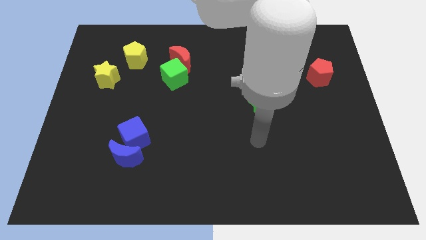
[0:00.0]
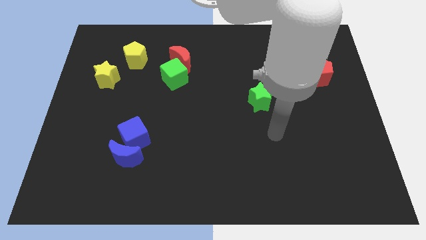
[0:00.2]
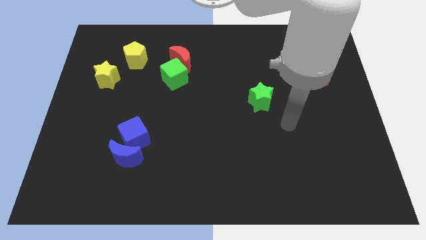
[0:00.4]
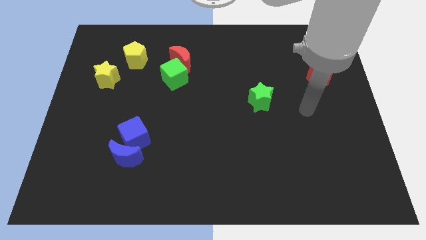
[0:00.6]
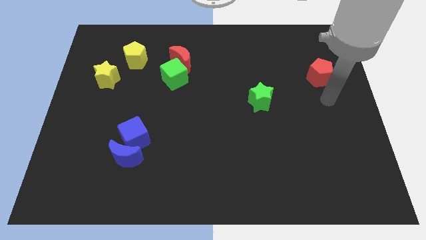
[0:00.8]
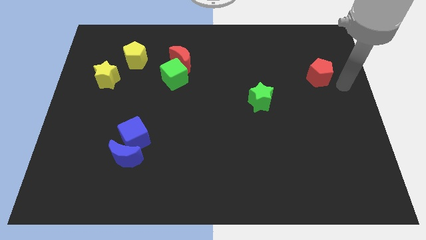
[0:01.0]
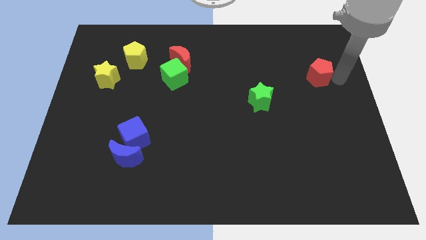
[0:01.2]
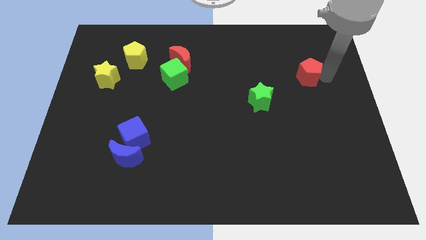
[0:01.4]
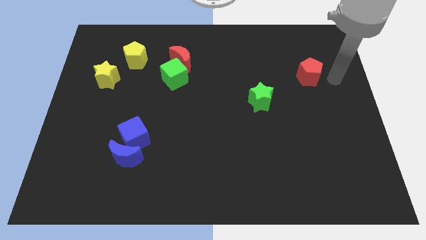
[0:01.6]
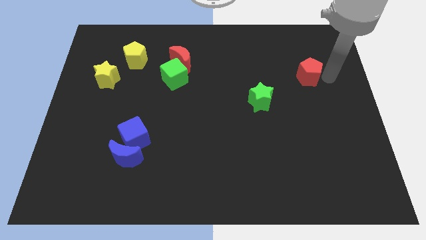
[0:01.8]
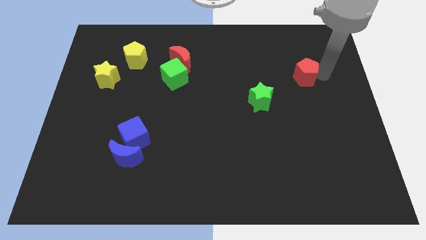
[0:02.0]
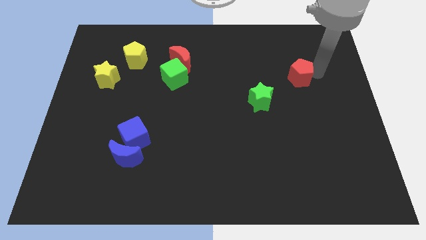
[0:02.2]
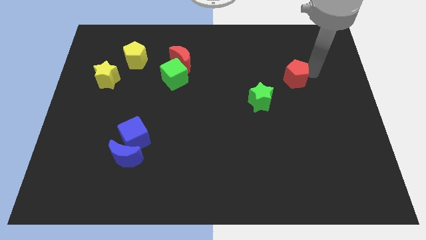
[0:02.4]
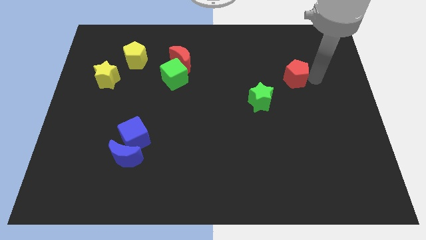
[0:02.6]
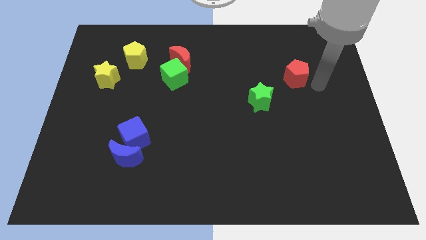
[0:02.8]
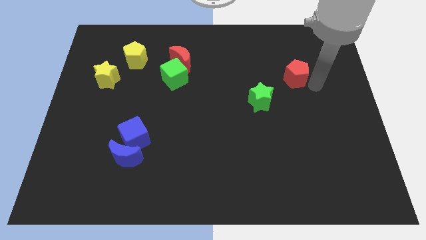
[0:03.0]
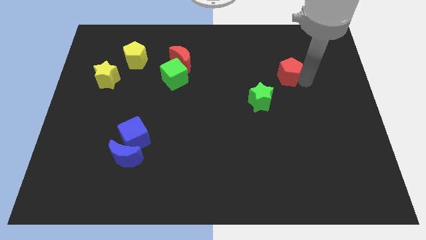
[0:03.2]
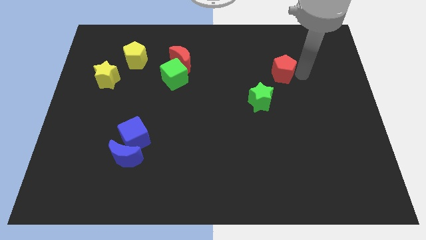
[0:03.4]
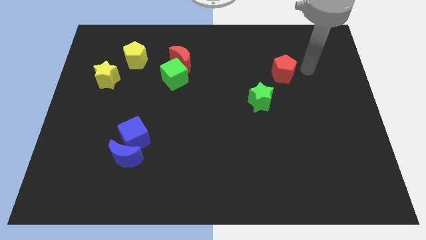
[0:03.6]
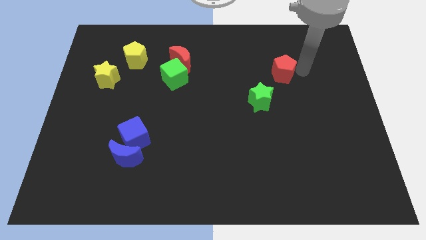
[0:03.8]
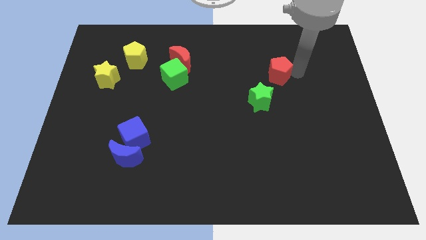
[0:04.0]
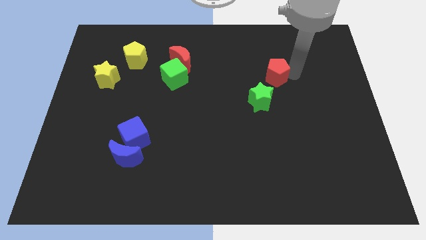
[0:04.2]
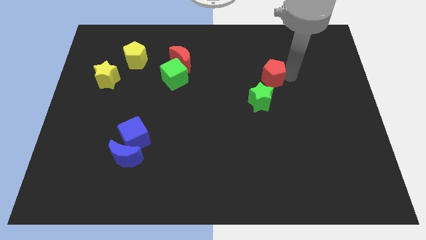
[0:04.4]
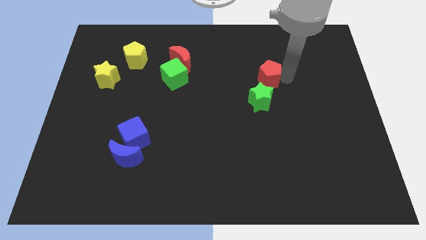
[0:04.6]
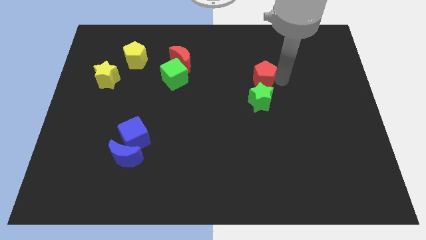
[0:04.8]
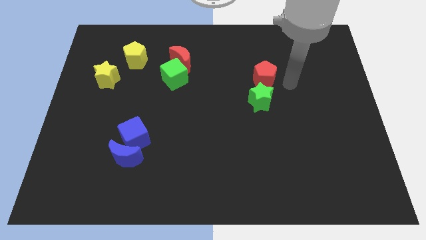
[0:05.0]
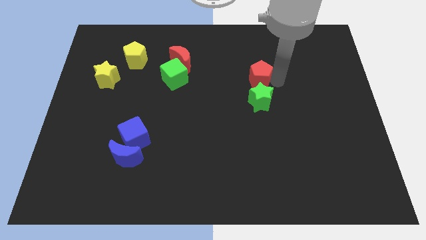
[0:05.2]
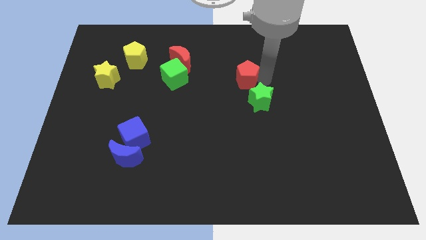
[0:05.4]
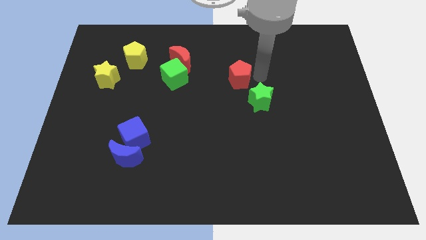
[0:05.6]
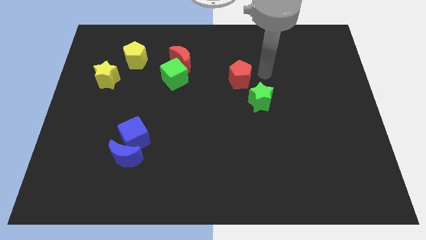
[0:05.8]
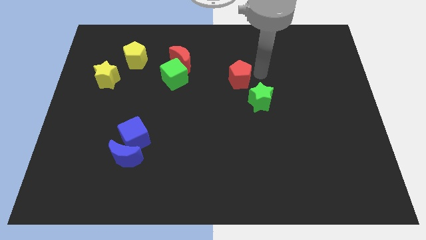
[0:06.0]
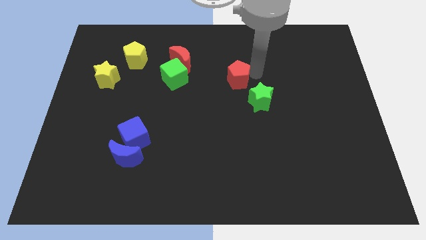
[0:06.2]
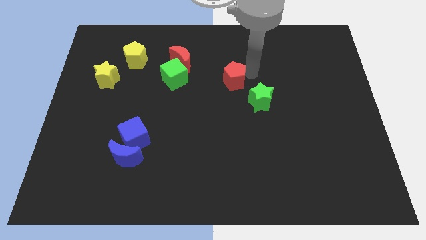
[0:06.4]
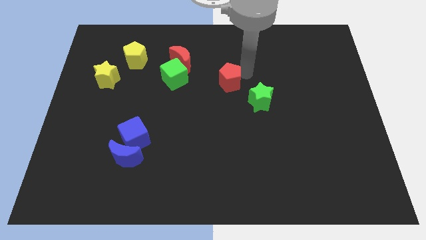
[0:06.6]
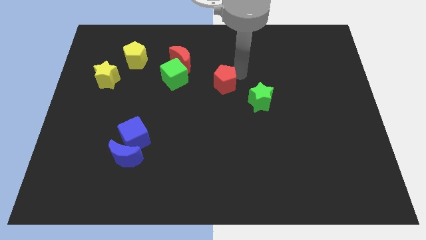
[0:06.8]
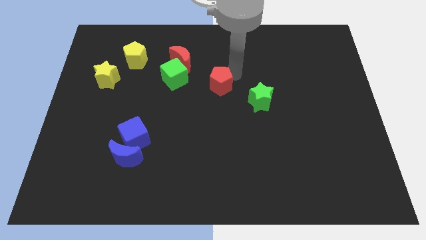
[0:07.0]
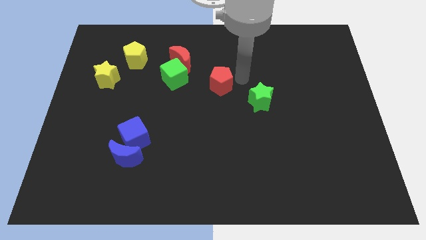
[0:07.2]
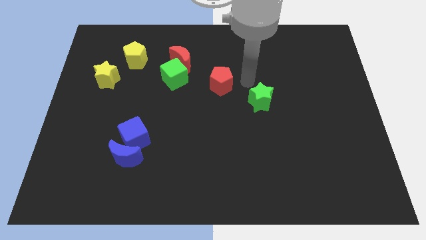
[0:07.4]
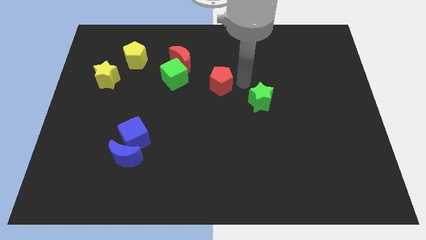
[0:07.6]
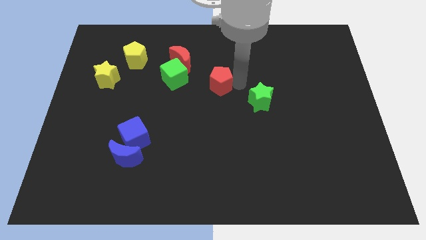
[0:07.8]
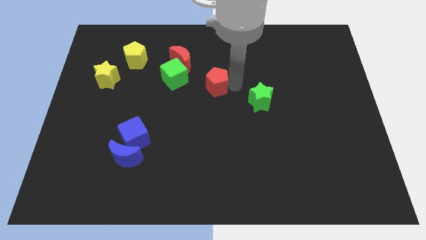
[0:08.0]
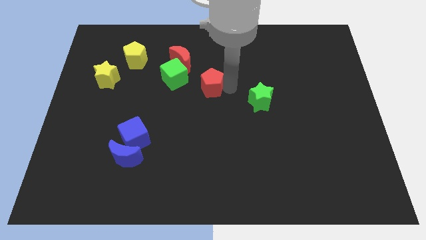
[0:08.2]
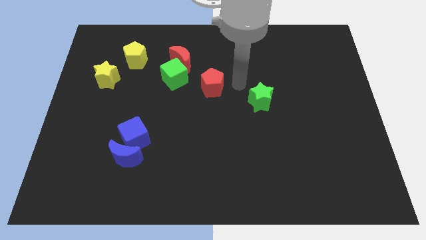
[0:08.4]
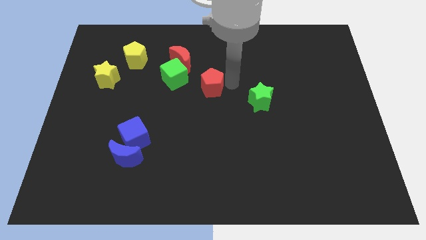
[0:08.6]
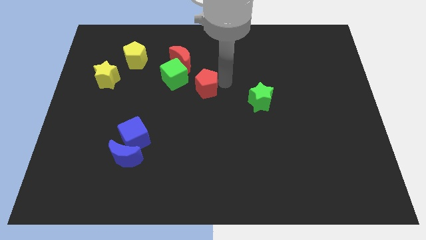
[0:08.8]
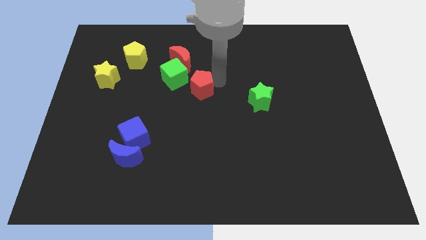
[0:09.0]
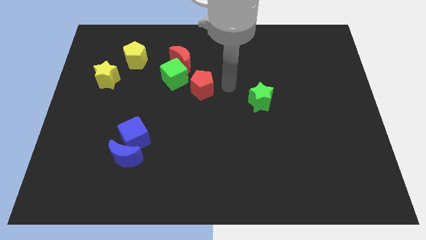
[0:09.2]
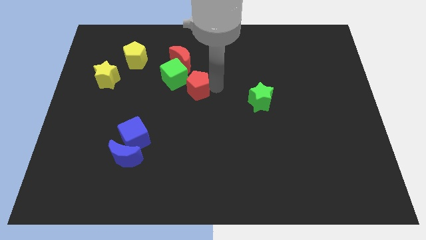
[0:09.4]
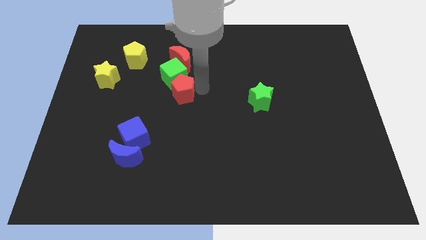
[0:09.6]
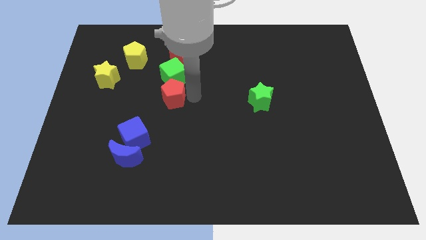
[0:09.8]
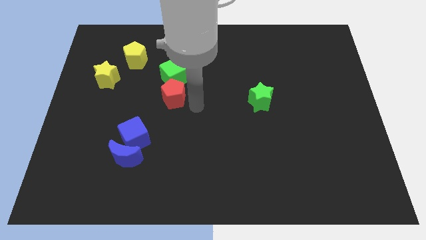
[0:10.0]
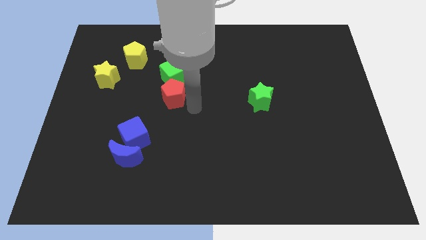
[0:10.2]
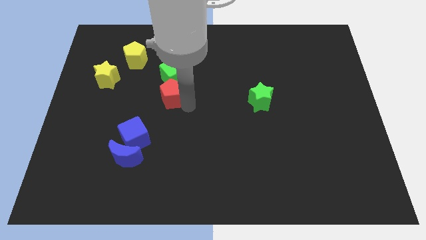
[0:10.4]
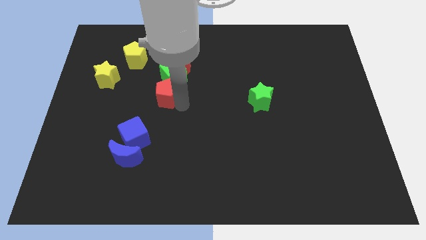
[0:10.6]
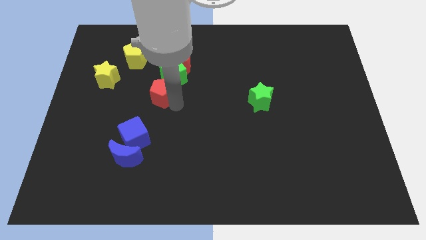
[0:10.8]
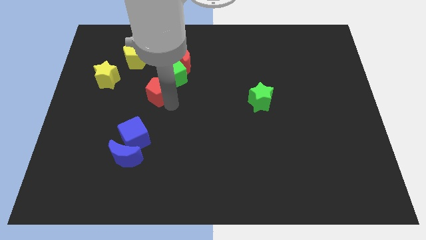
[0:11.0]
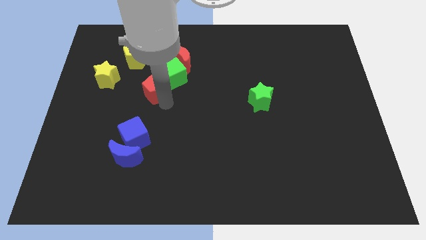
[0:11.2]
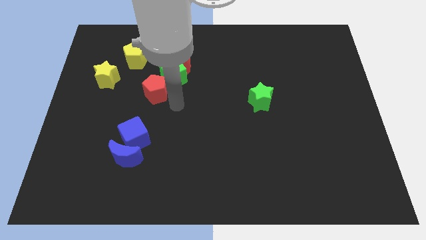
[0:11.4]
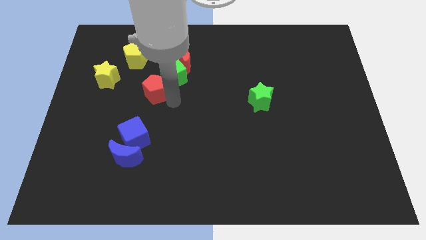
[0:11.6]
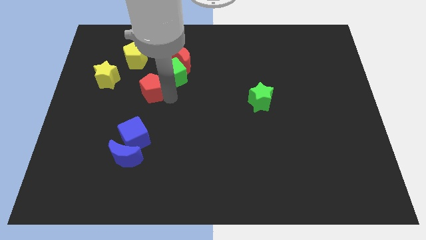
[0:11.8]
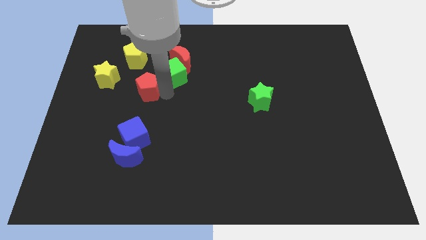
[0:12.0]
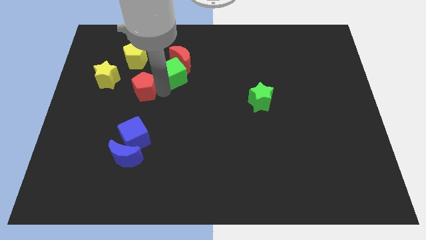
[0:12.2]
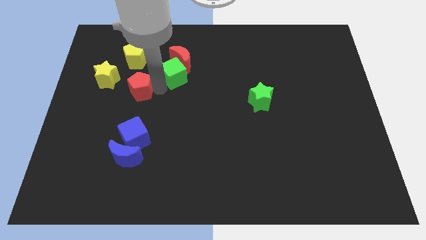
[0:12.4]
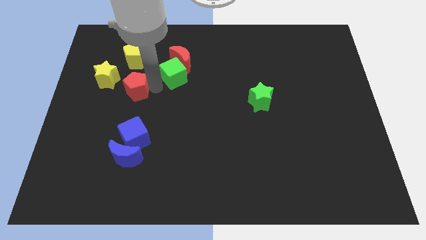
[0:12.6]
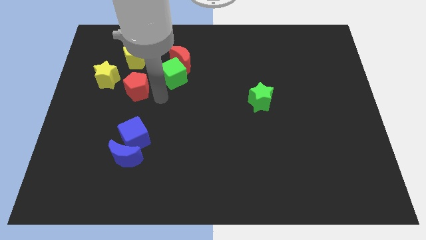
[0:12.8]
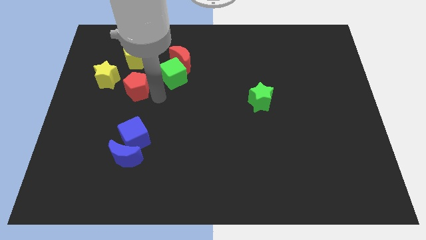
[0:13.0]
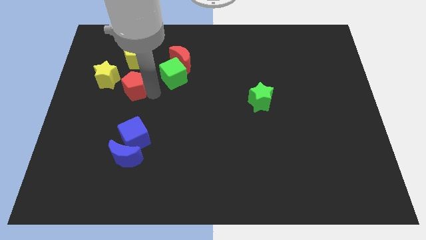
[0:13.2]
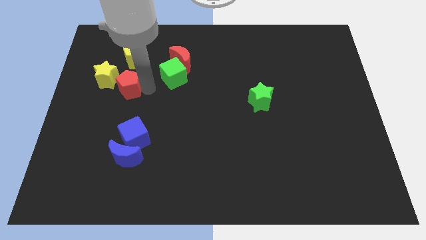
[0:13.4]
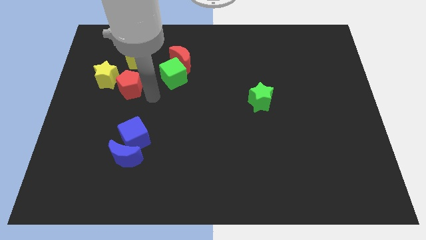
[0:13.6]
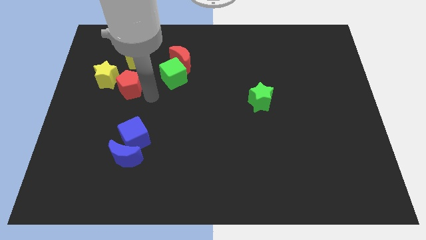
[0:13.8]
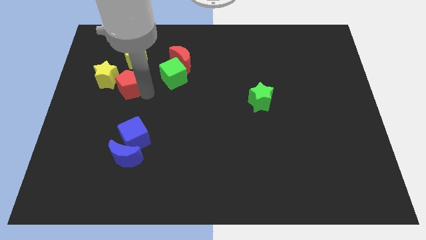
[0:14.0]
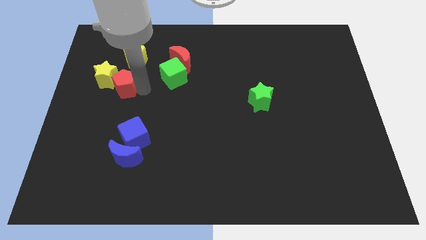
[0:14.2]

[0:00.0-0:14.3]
move the red pentagon close to the yellow star
